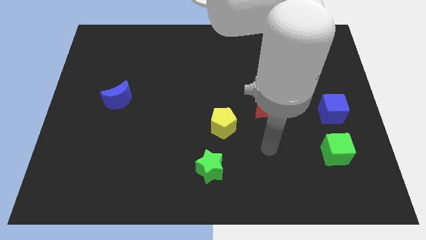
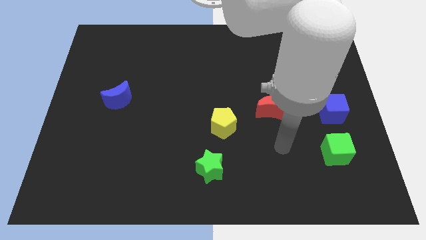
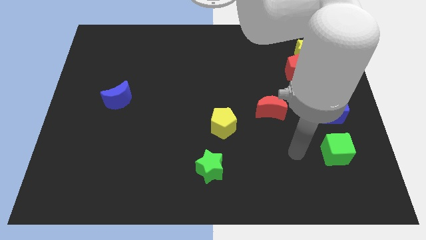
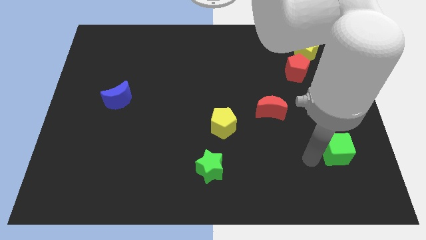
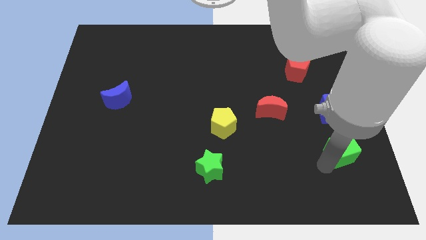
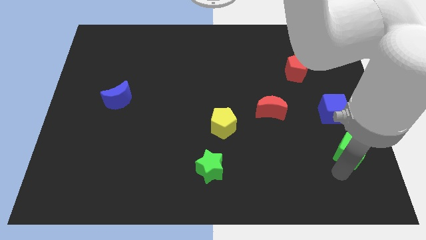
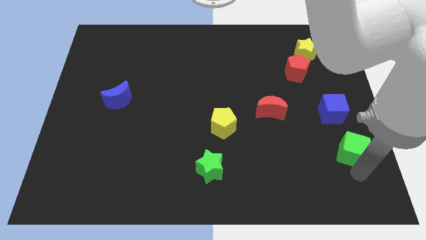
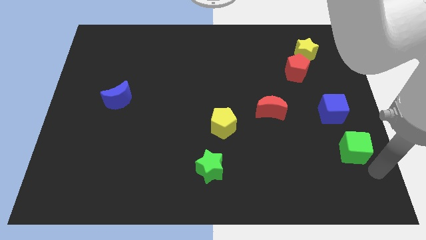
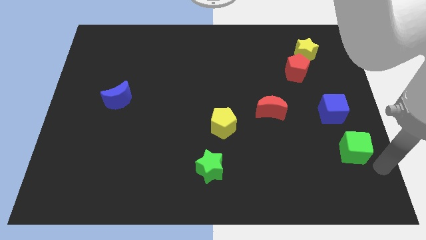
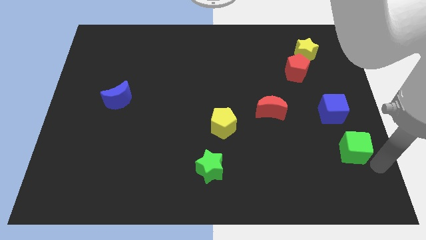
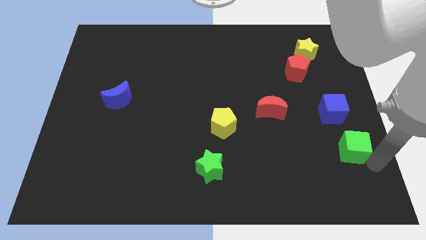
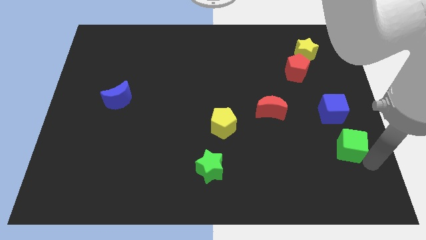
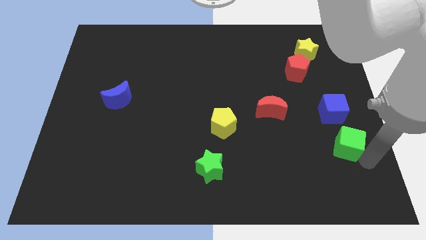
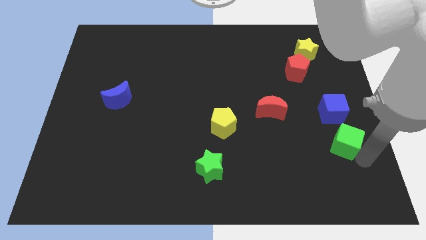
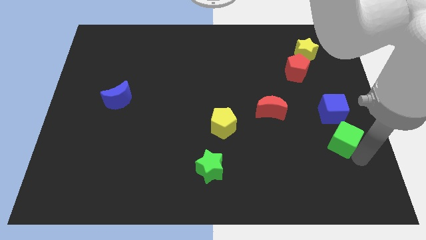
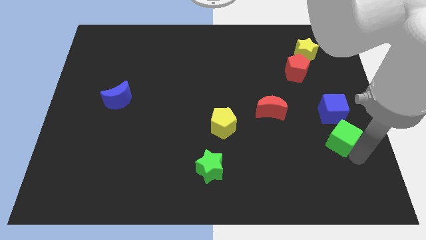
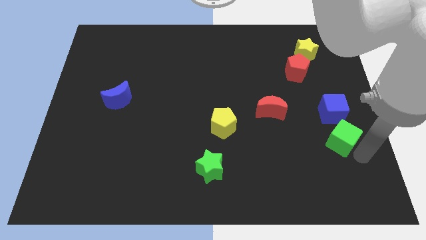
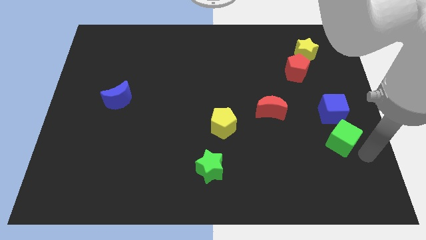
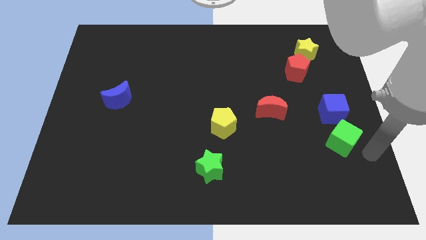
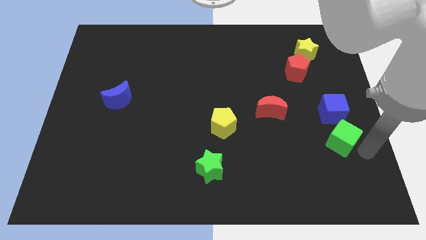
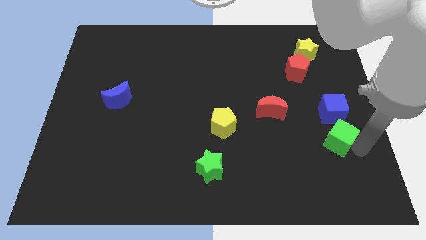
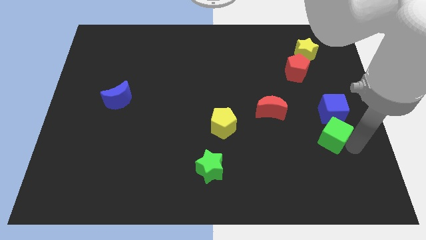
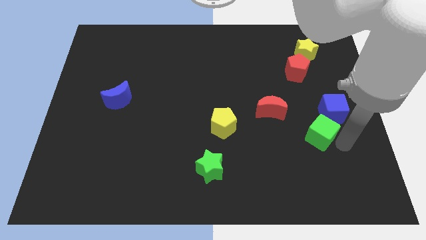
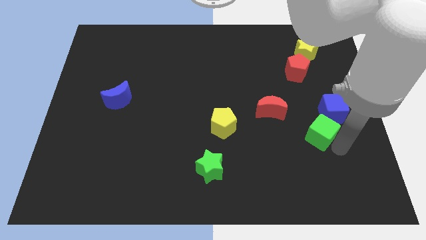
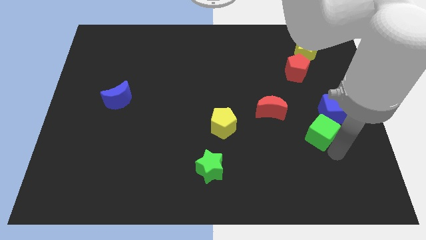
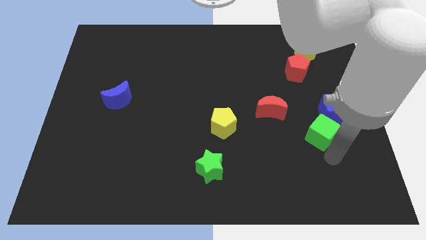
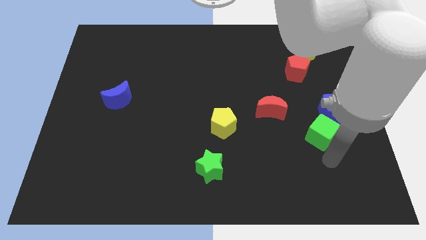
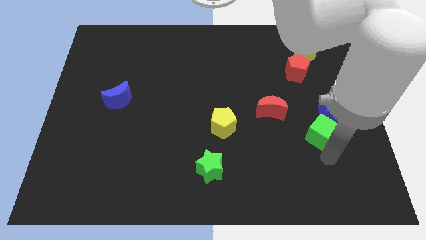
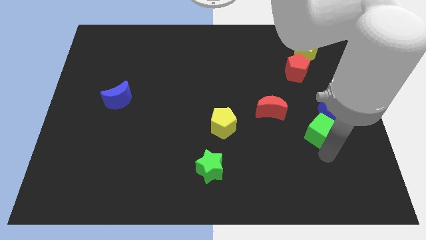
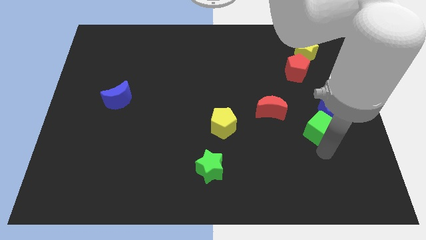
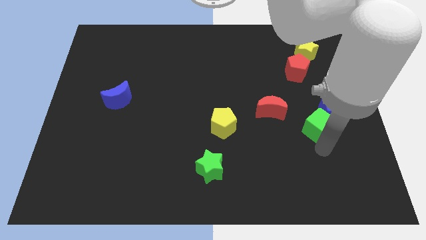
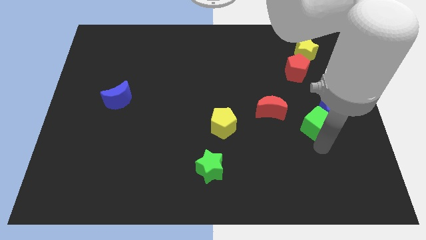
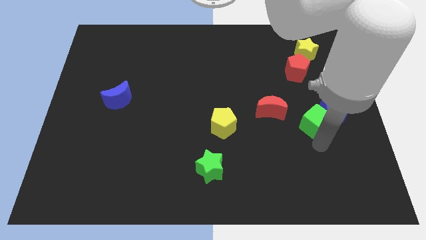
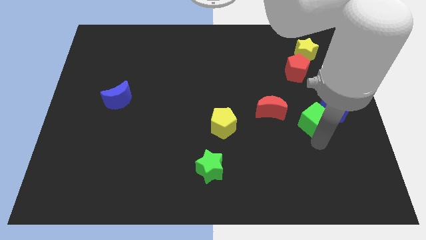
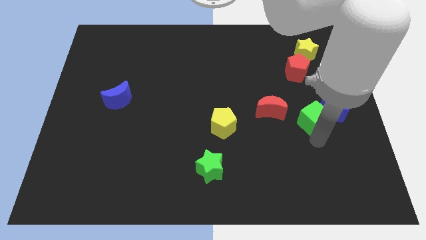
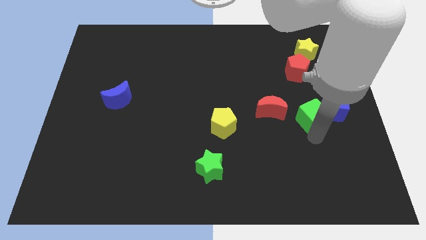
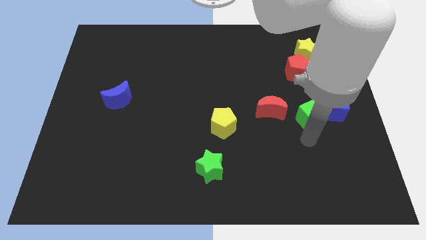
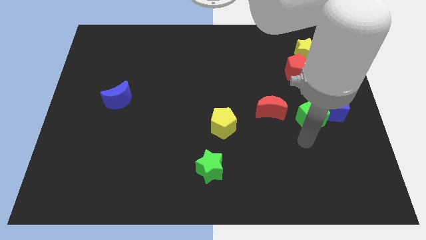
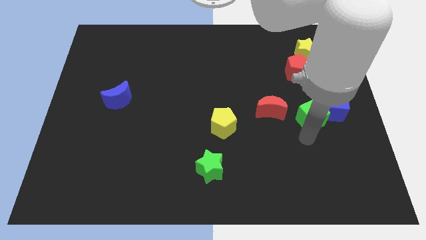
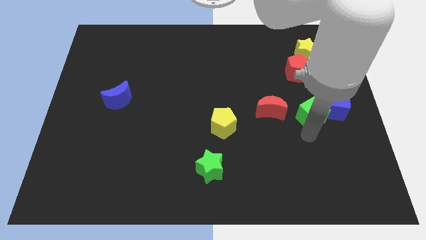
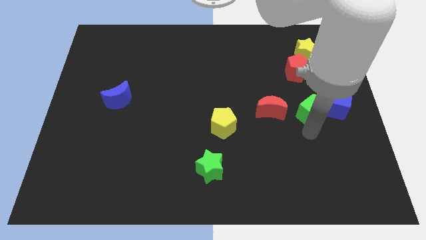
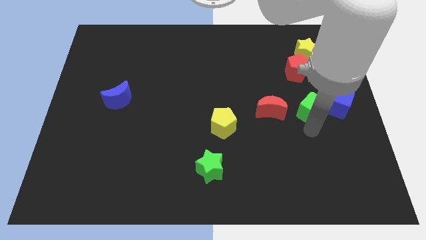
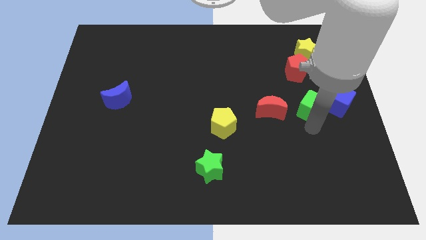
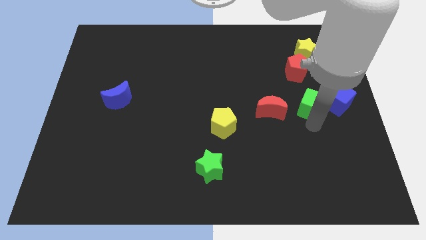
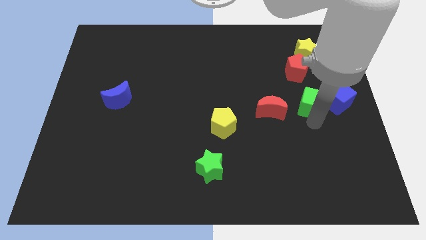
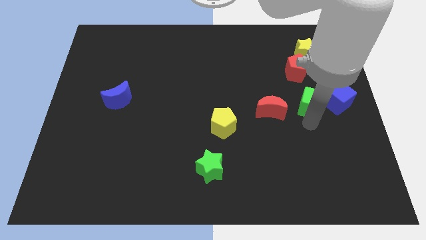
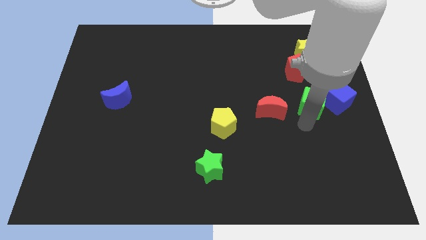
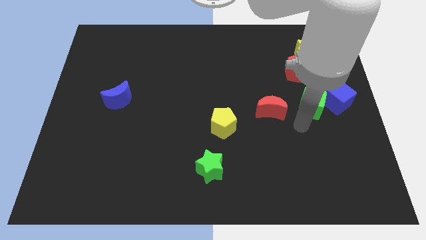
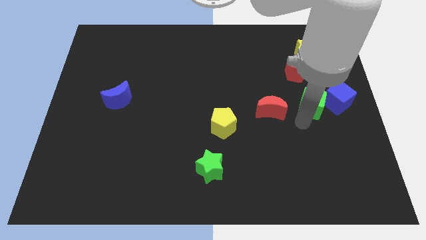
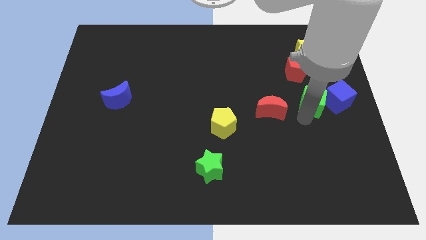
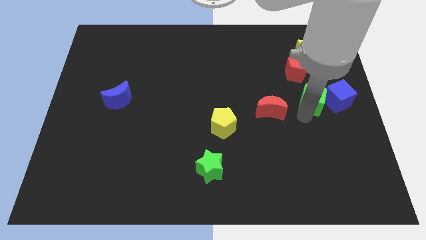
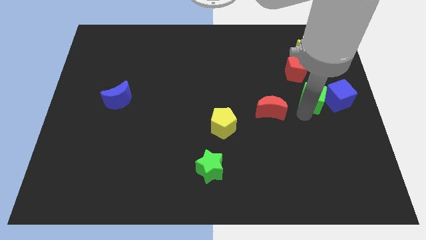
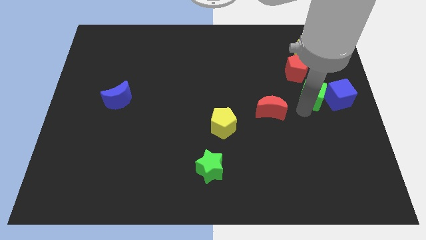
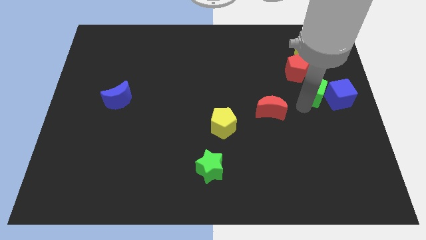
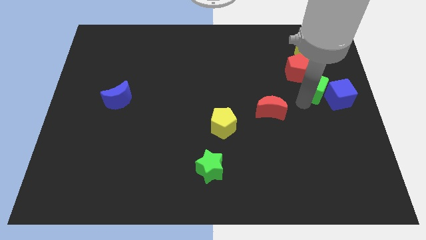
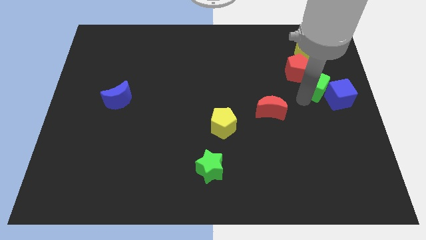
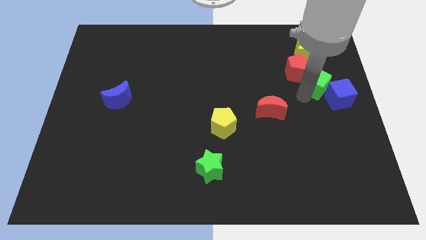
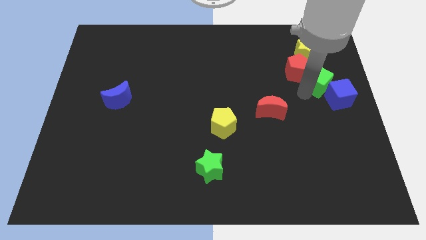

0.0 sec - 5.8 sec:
push the green cube to the top side of the blue cube

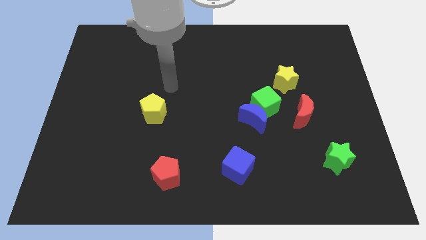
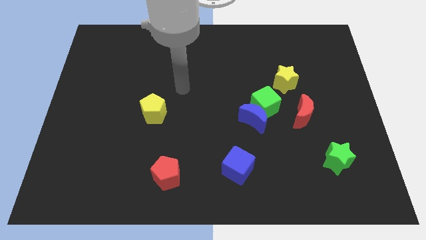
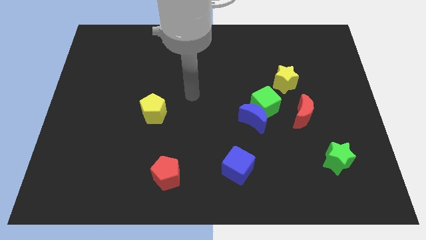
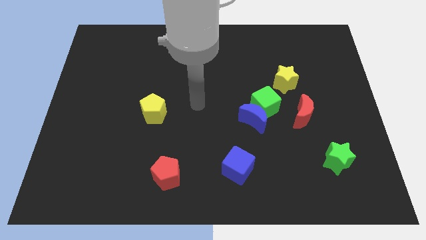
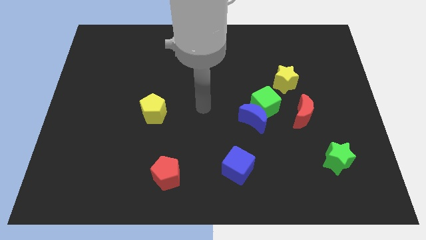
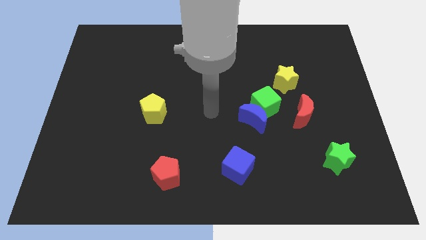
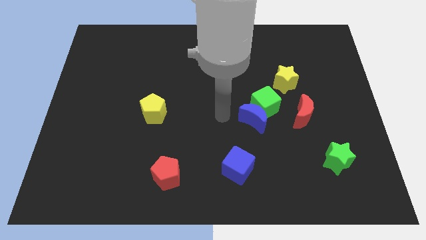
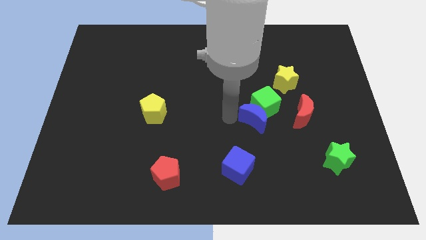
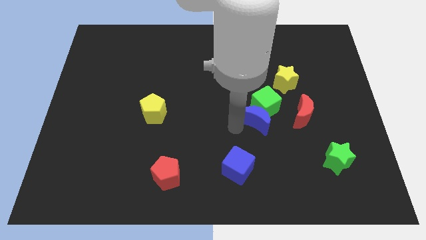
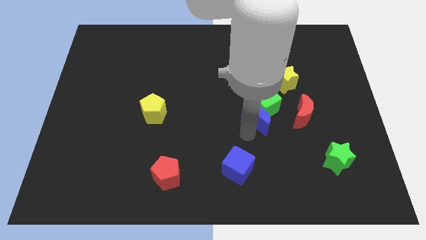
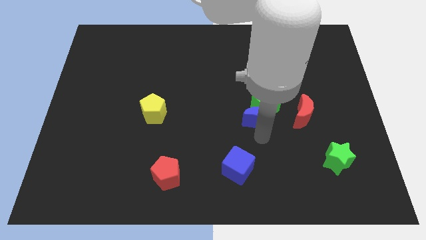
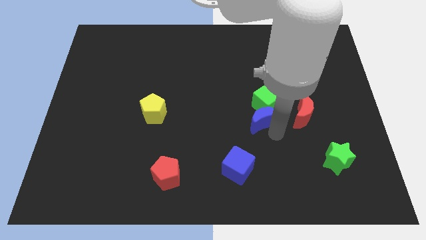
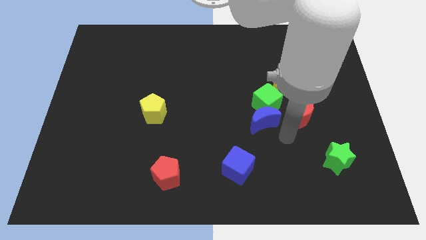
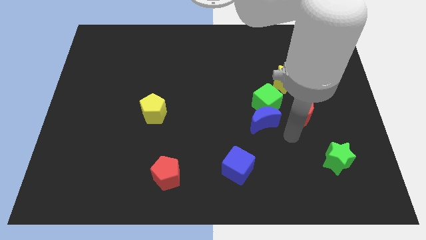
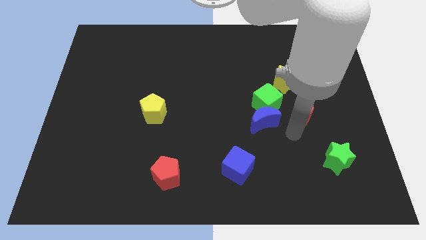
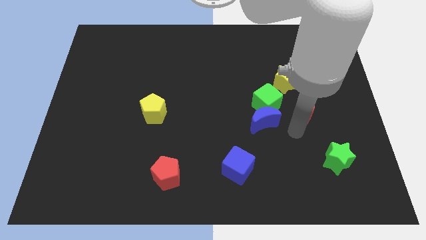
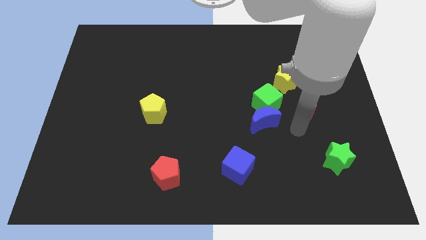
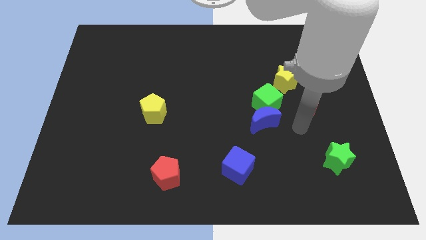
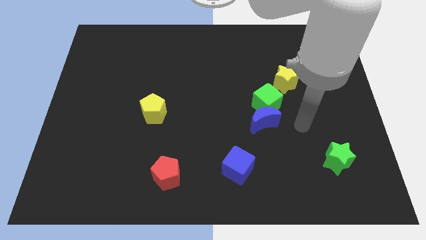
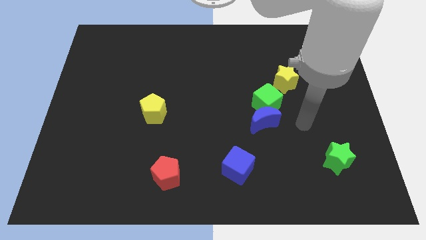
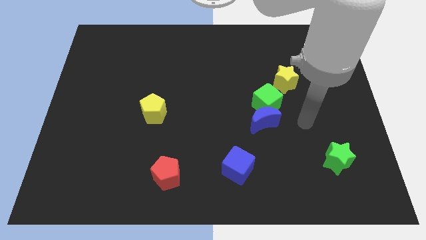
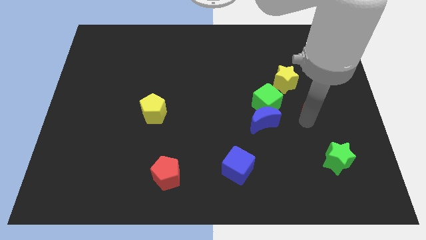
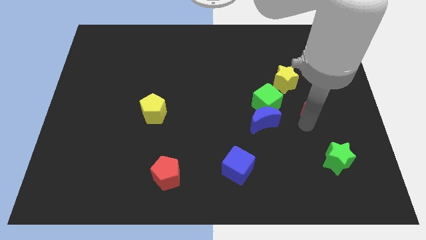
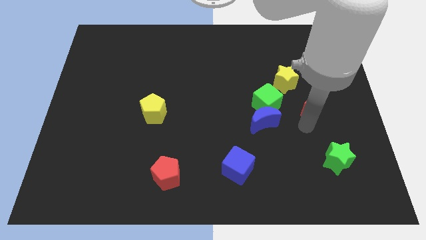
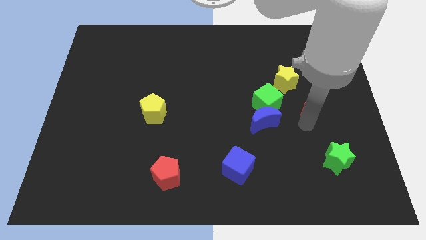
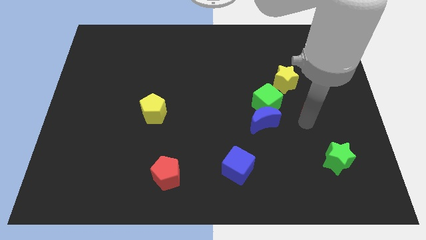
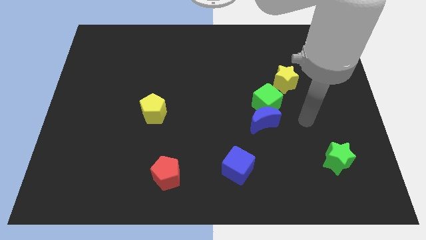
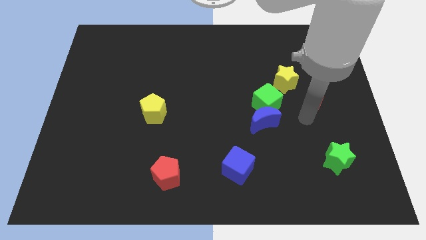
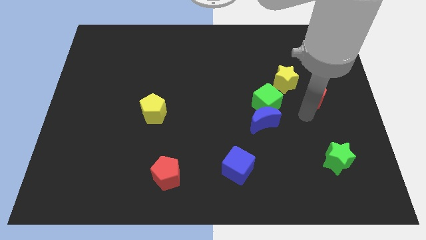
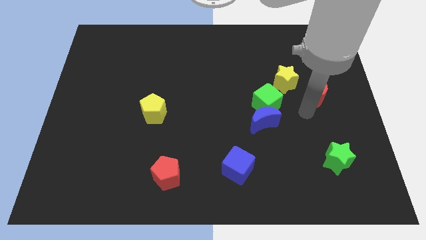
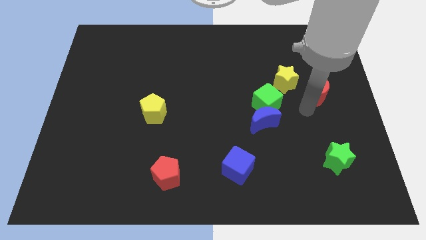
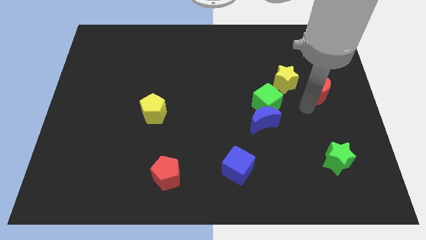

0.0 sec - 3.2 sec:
put the red moon to the right of the yellow star
